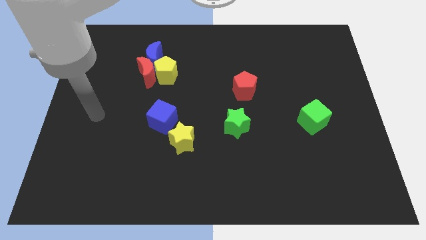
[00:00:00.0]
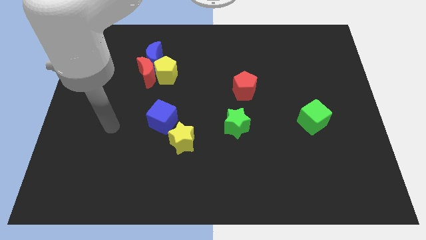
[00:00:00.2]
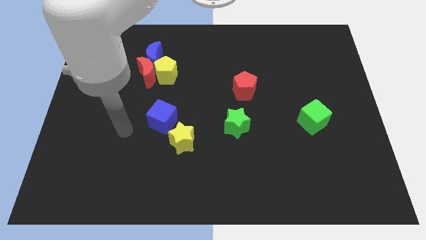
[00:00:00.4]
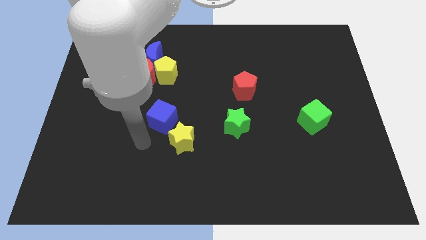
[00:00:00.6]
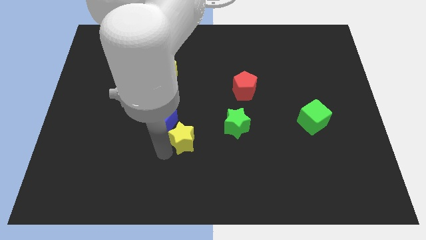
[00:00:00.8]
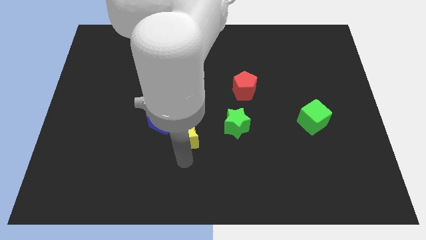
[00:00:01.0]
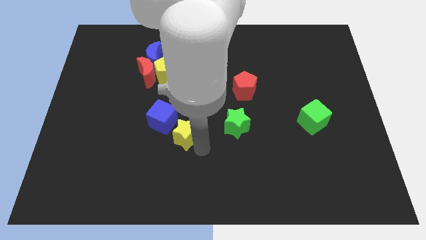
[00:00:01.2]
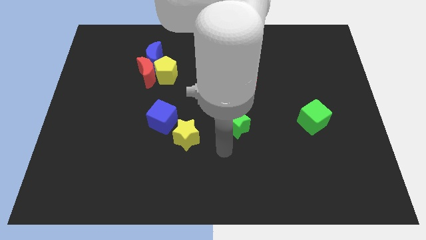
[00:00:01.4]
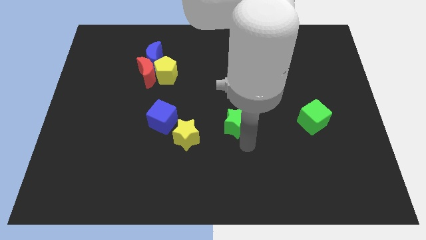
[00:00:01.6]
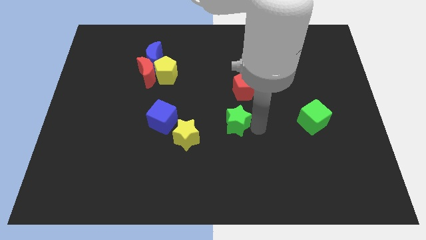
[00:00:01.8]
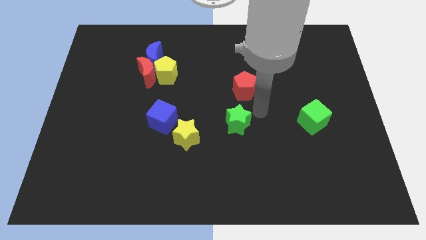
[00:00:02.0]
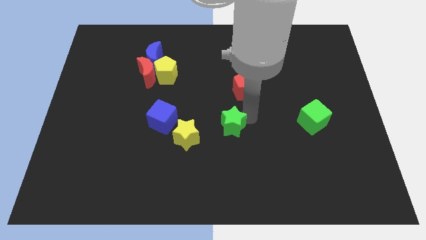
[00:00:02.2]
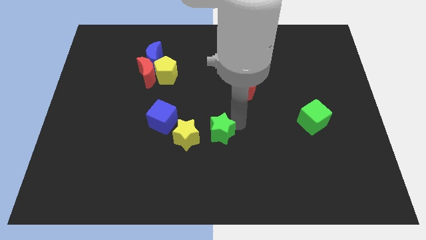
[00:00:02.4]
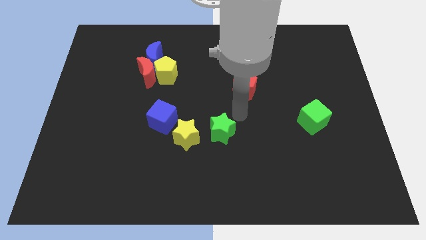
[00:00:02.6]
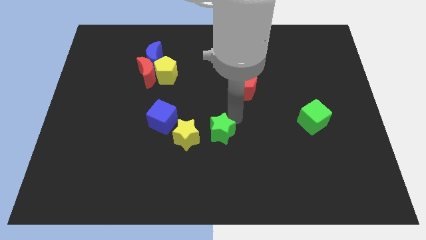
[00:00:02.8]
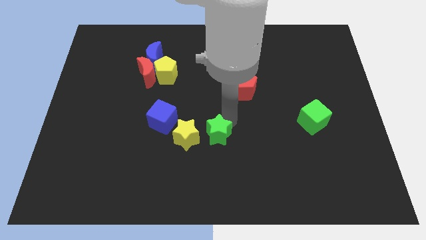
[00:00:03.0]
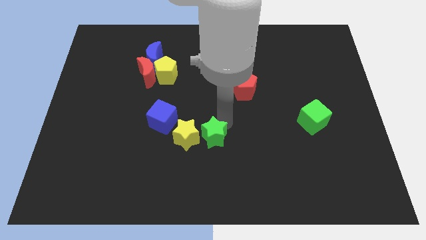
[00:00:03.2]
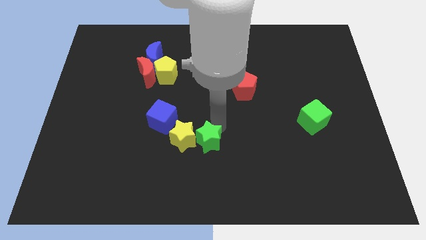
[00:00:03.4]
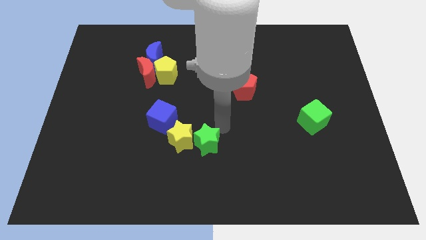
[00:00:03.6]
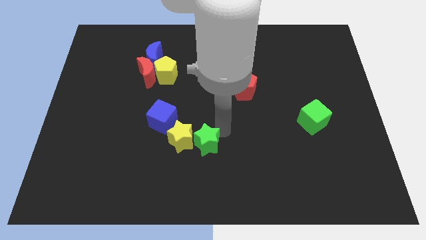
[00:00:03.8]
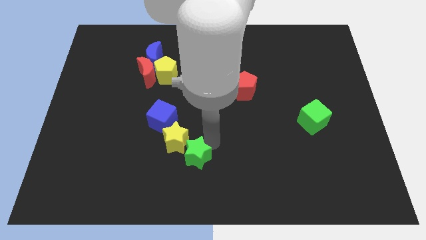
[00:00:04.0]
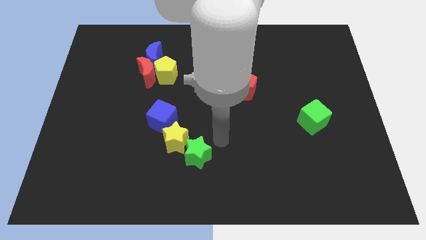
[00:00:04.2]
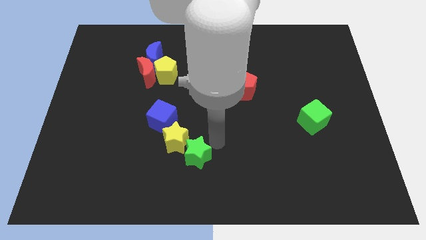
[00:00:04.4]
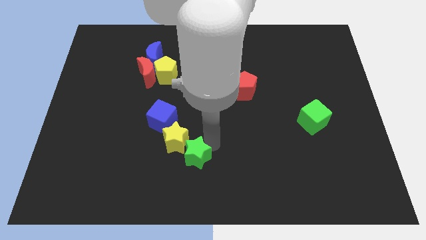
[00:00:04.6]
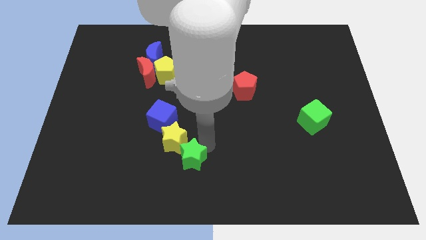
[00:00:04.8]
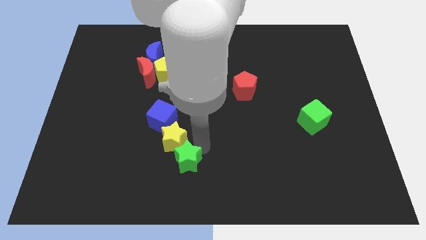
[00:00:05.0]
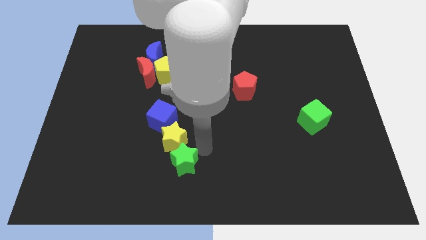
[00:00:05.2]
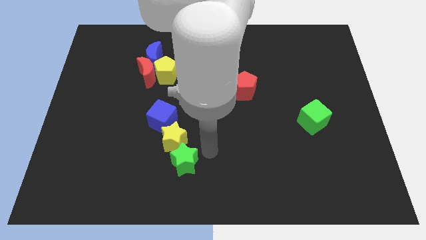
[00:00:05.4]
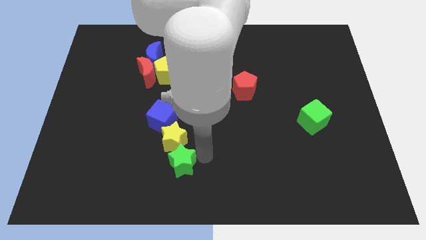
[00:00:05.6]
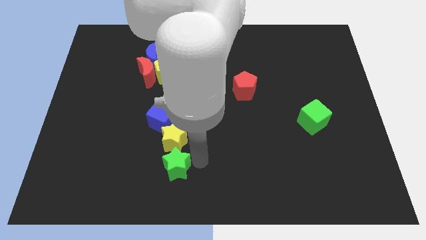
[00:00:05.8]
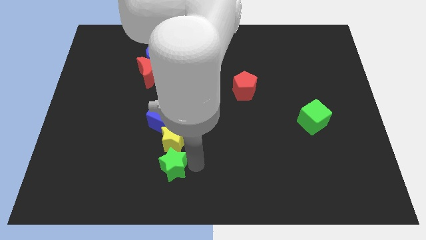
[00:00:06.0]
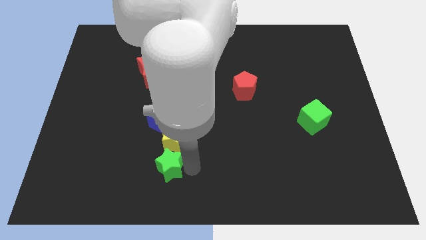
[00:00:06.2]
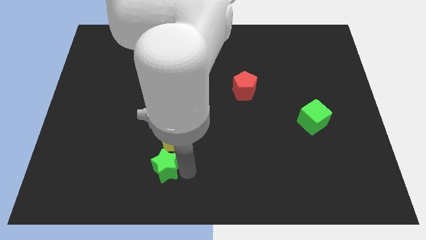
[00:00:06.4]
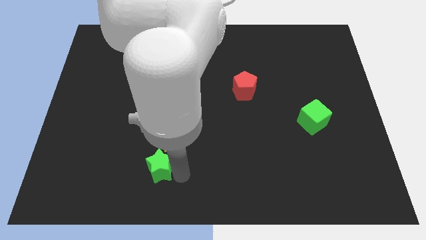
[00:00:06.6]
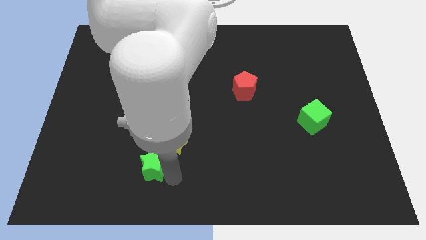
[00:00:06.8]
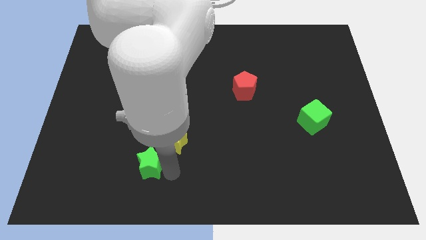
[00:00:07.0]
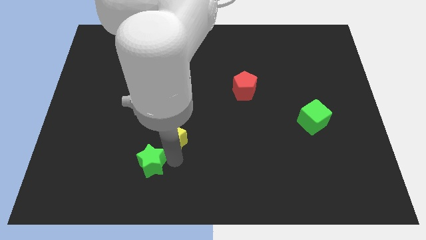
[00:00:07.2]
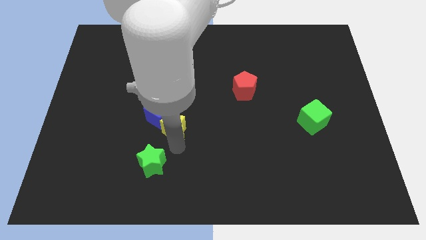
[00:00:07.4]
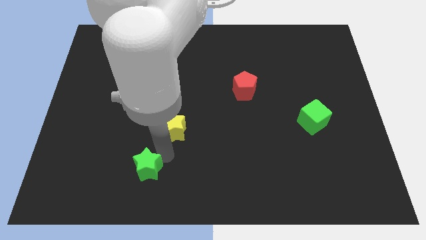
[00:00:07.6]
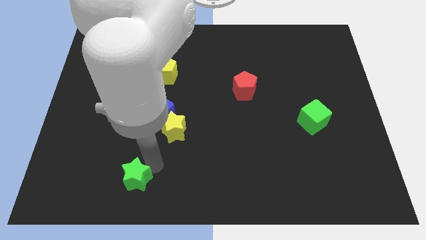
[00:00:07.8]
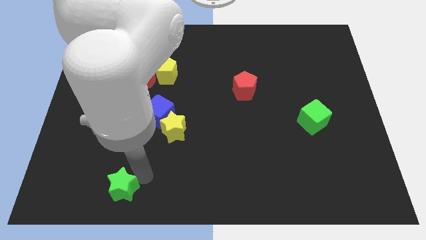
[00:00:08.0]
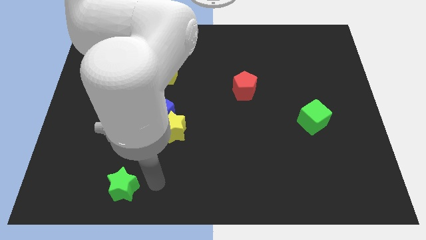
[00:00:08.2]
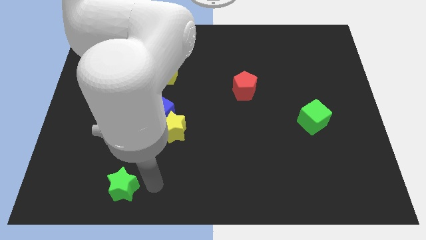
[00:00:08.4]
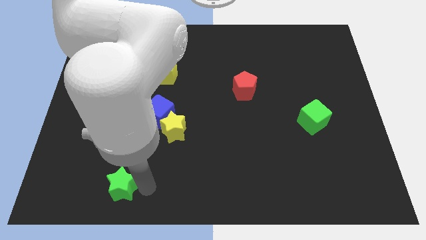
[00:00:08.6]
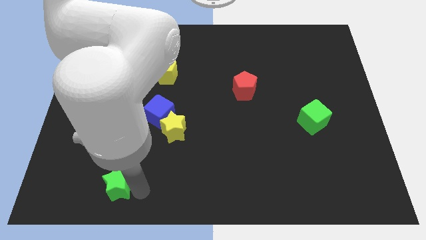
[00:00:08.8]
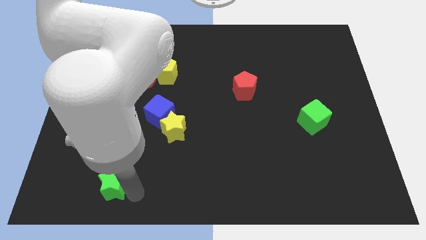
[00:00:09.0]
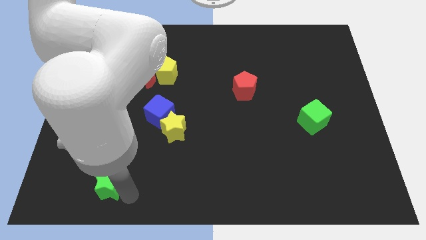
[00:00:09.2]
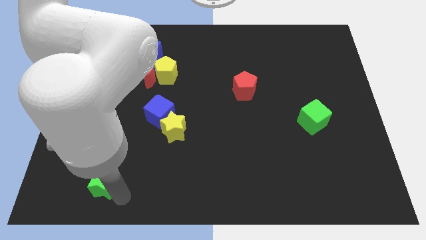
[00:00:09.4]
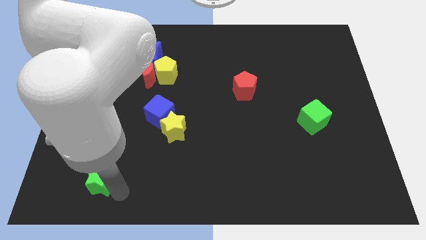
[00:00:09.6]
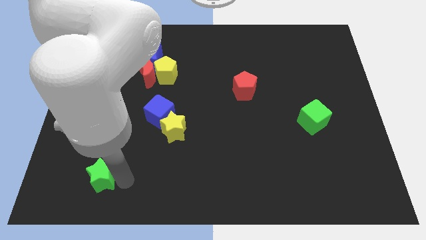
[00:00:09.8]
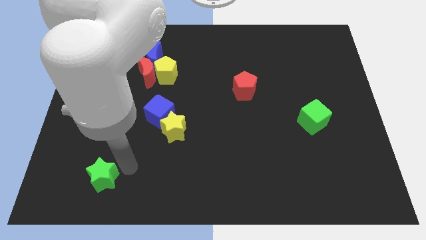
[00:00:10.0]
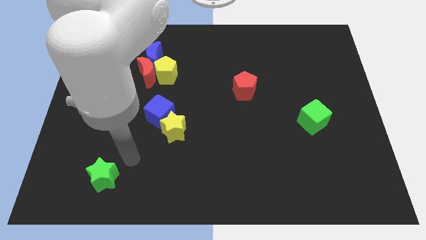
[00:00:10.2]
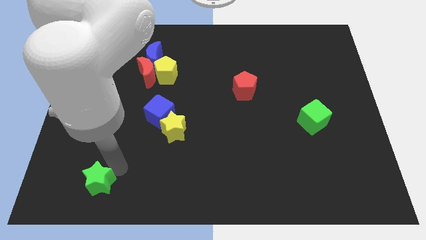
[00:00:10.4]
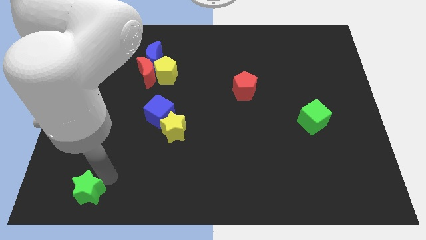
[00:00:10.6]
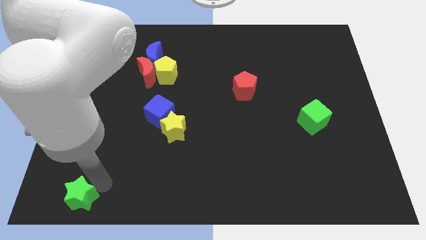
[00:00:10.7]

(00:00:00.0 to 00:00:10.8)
move the green star to the lower left corner
